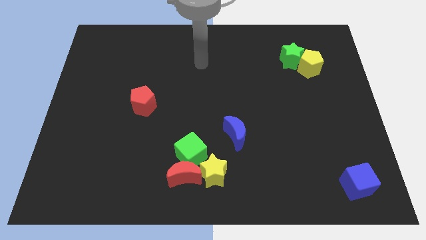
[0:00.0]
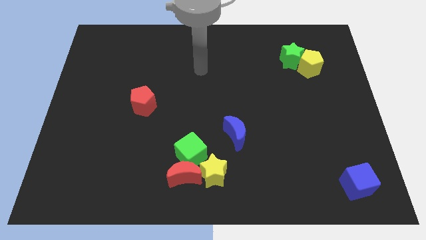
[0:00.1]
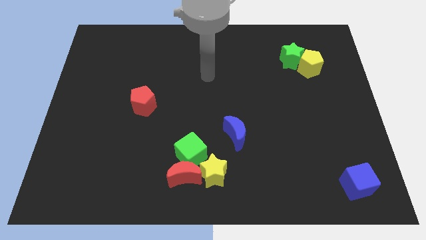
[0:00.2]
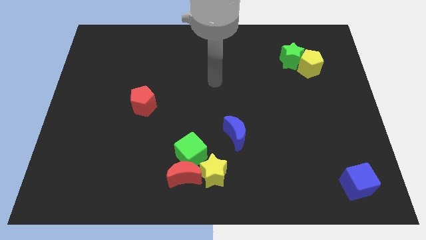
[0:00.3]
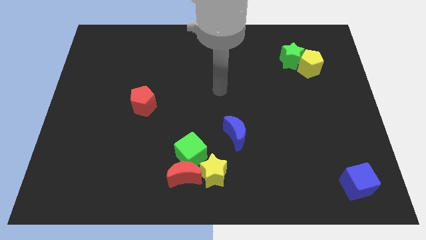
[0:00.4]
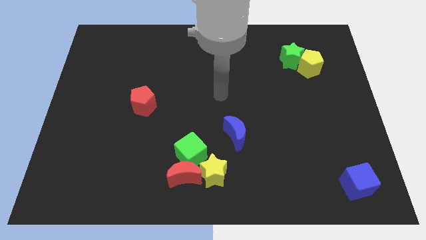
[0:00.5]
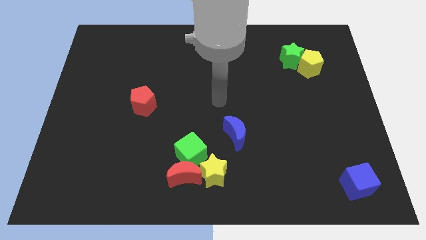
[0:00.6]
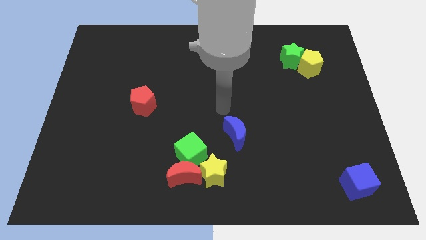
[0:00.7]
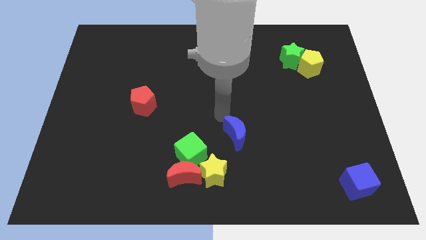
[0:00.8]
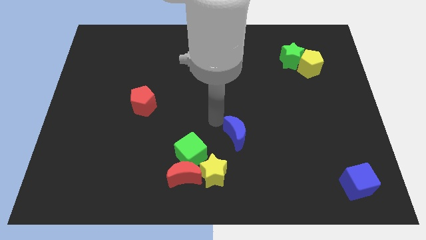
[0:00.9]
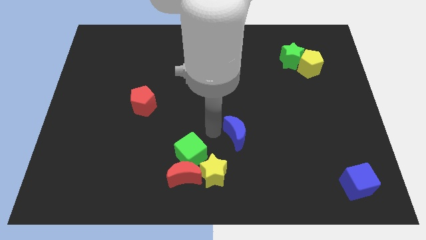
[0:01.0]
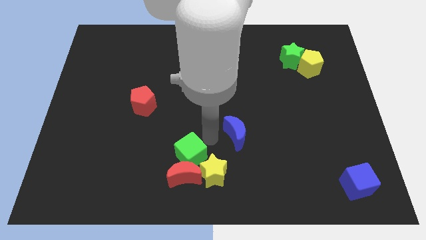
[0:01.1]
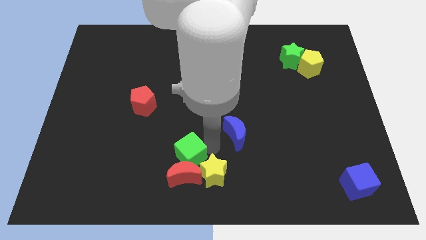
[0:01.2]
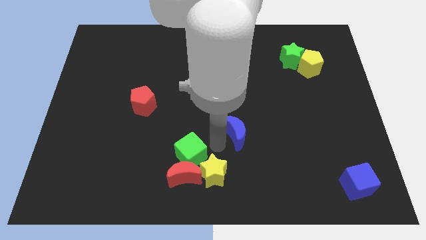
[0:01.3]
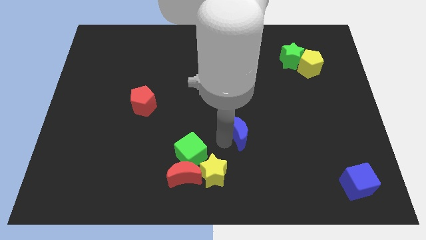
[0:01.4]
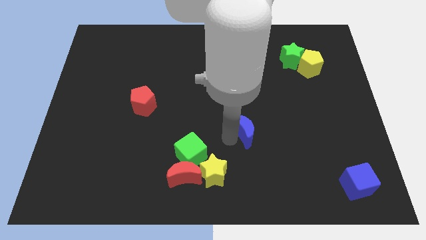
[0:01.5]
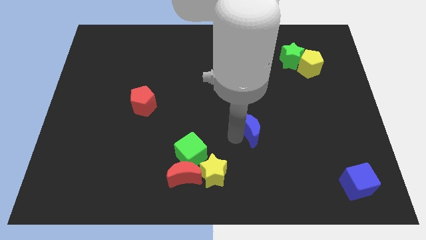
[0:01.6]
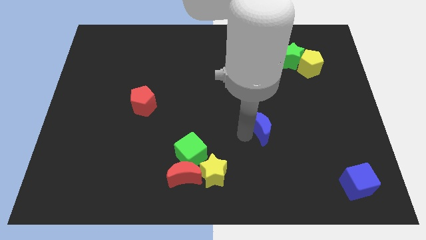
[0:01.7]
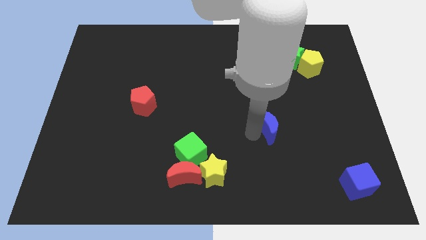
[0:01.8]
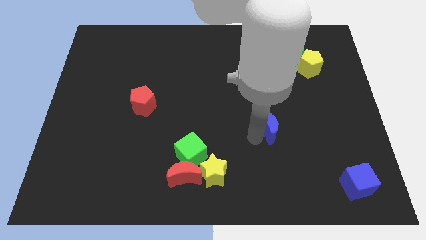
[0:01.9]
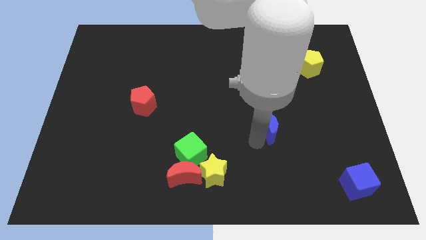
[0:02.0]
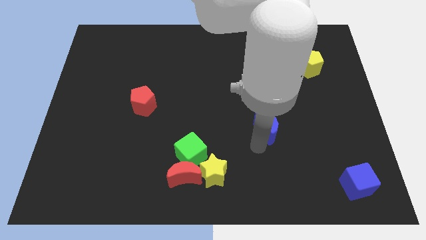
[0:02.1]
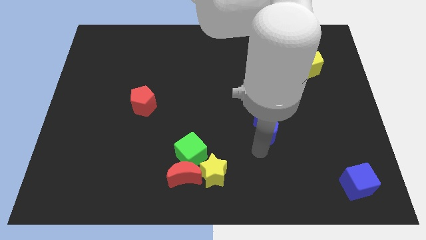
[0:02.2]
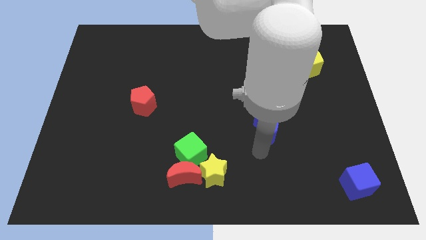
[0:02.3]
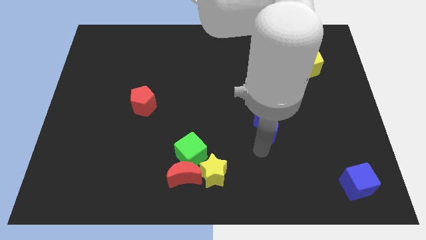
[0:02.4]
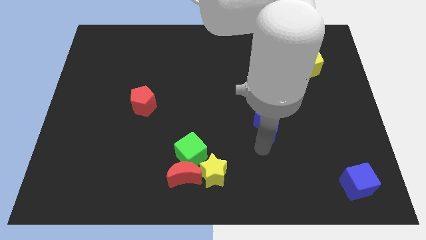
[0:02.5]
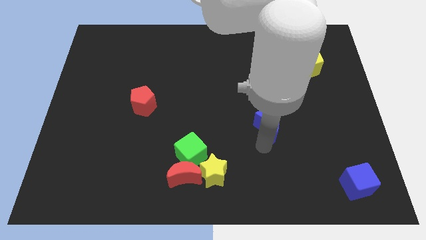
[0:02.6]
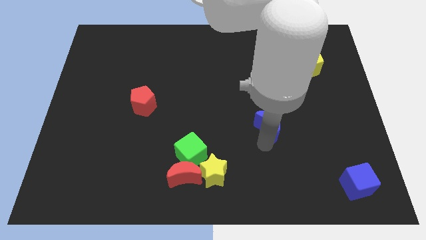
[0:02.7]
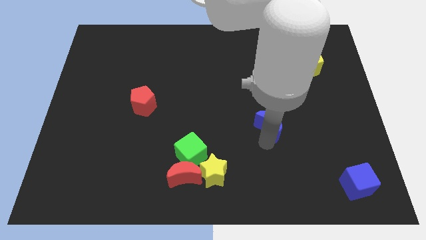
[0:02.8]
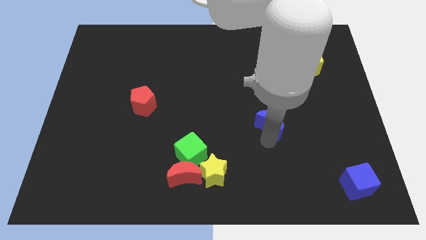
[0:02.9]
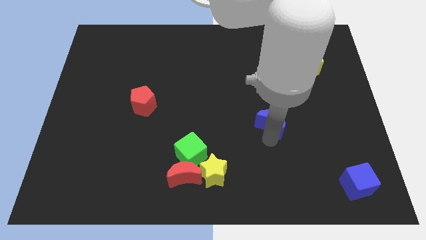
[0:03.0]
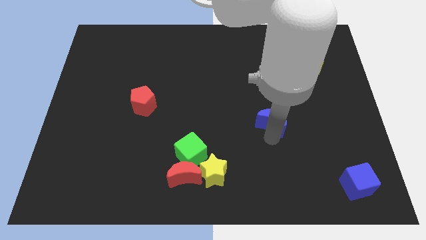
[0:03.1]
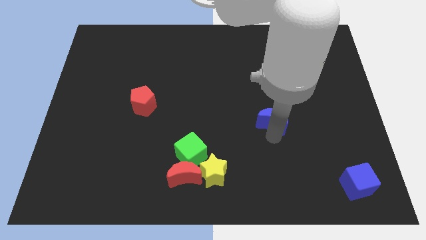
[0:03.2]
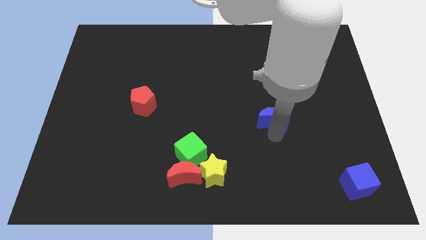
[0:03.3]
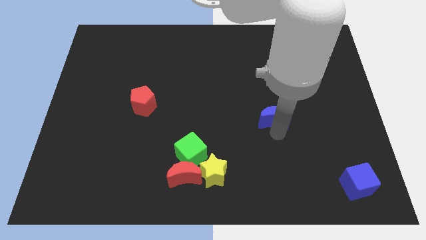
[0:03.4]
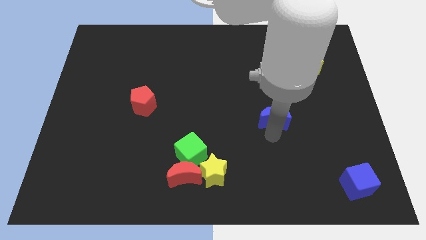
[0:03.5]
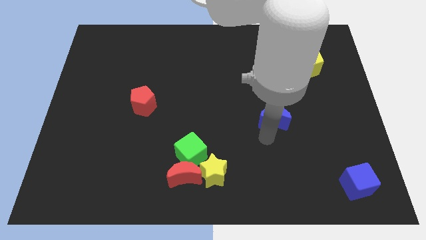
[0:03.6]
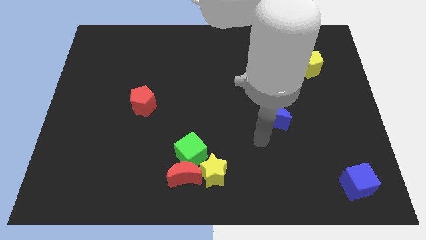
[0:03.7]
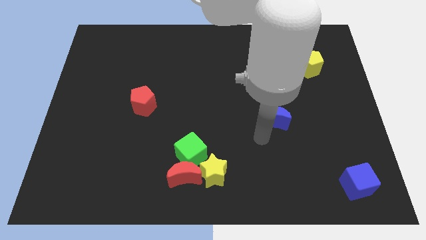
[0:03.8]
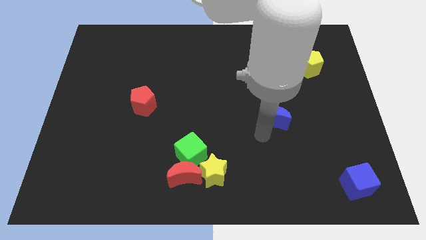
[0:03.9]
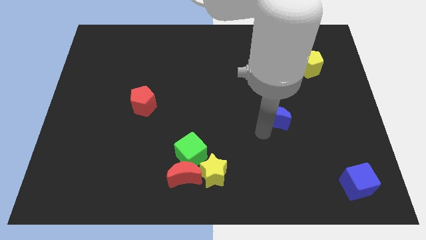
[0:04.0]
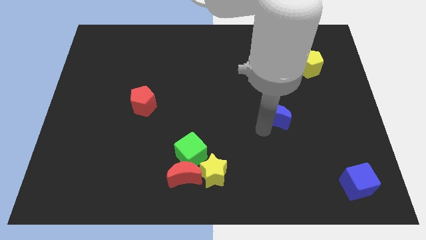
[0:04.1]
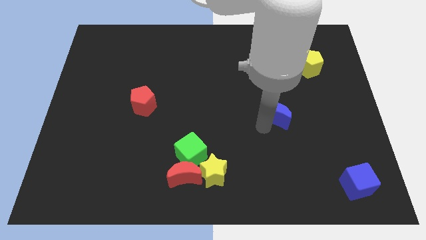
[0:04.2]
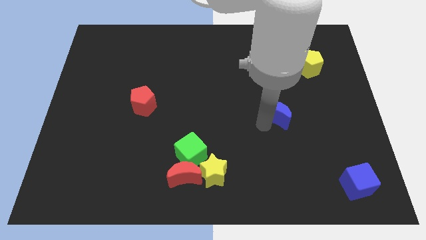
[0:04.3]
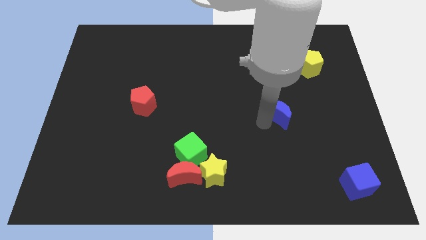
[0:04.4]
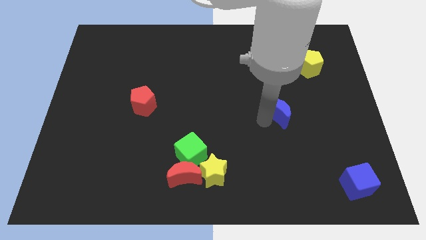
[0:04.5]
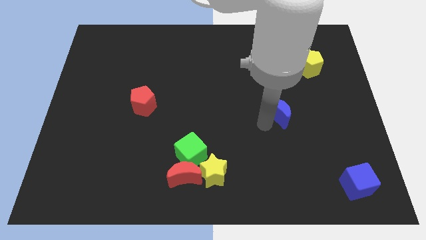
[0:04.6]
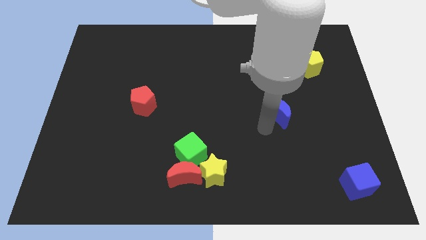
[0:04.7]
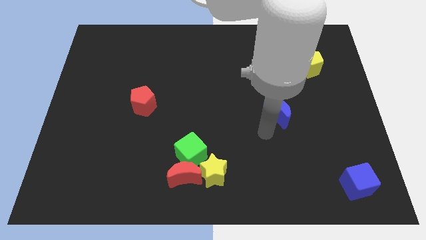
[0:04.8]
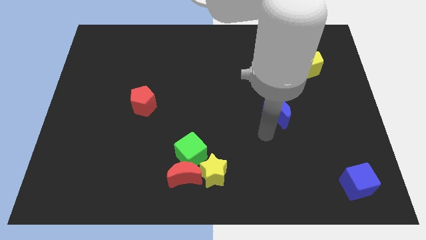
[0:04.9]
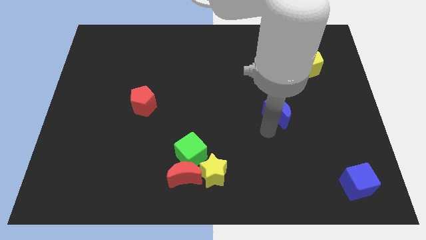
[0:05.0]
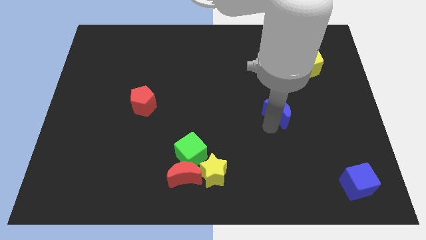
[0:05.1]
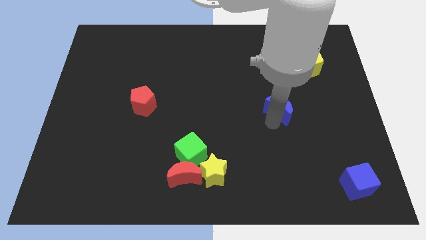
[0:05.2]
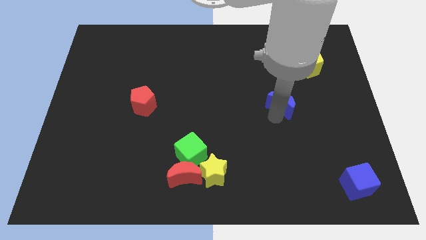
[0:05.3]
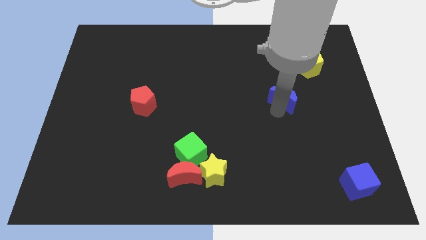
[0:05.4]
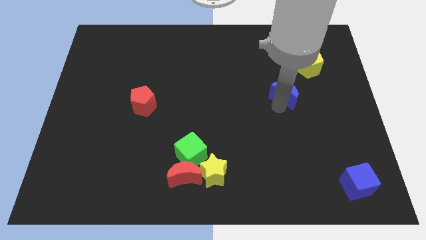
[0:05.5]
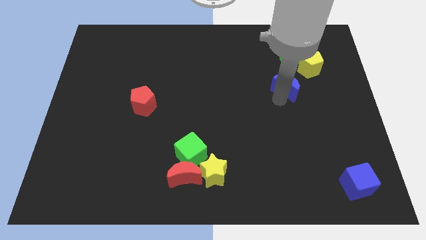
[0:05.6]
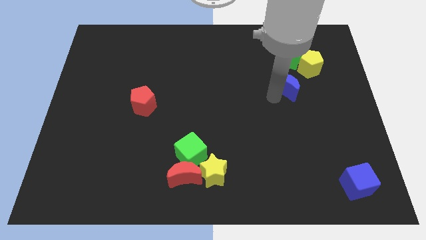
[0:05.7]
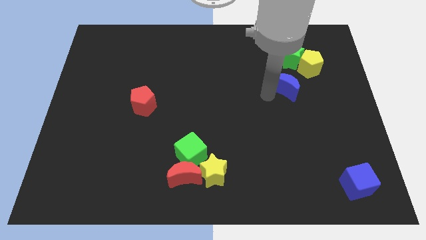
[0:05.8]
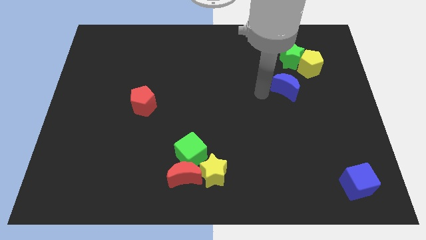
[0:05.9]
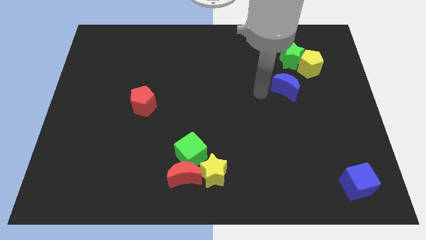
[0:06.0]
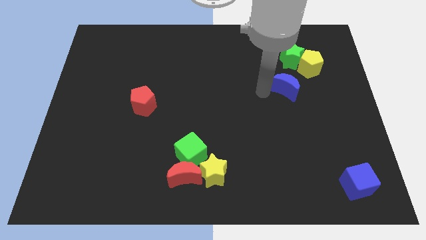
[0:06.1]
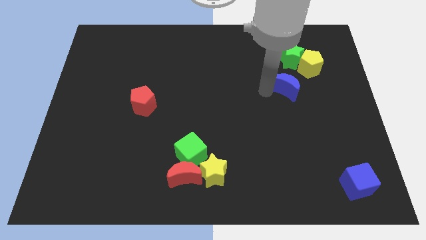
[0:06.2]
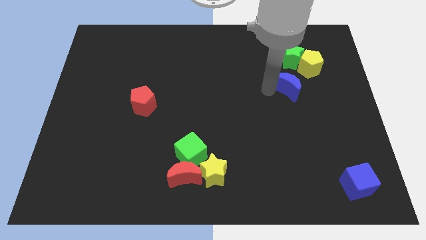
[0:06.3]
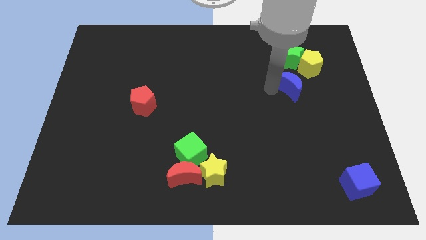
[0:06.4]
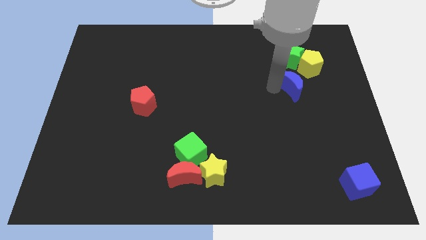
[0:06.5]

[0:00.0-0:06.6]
move the blue moon upwards and to the right diagonally

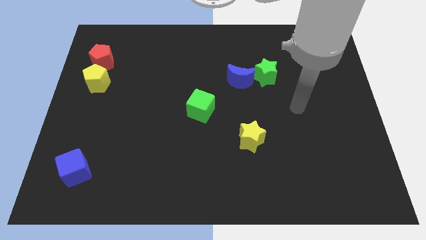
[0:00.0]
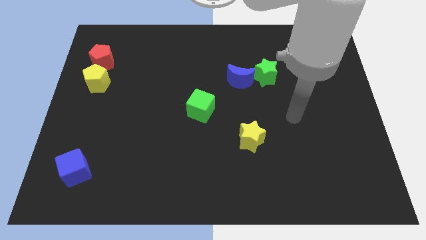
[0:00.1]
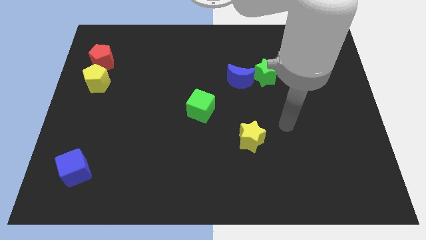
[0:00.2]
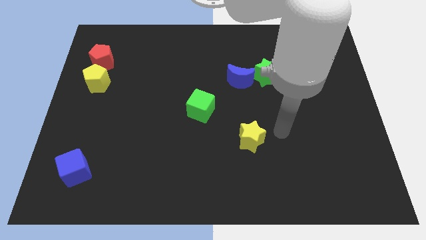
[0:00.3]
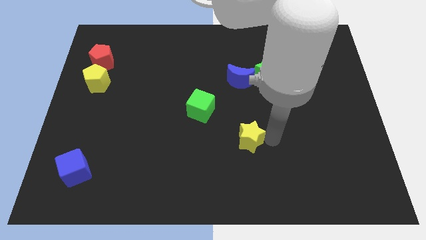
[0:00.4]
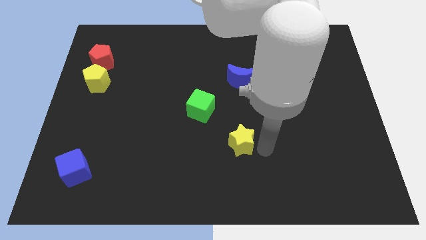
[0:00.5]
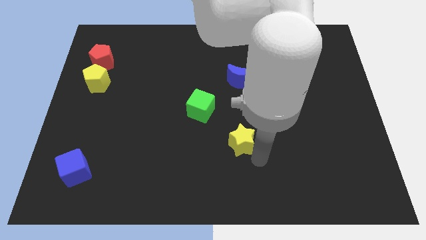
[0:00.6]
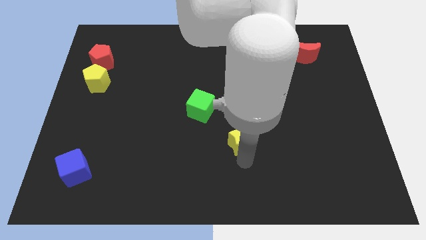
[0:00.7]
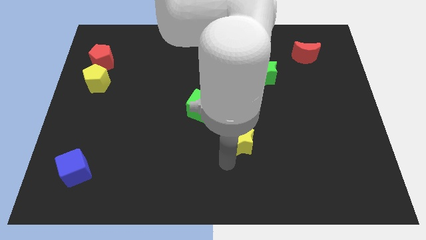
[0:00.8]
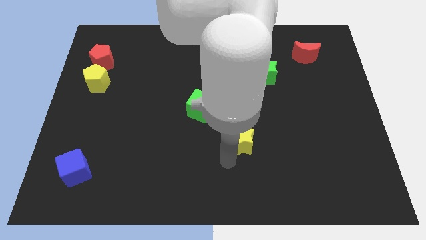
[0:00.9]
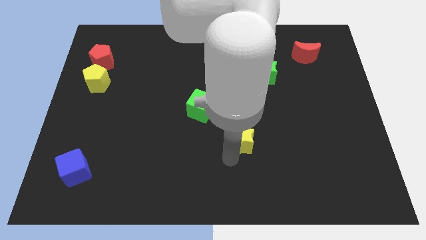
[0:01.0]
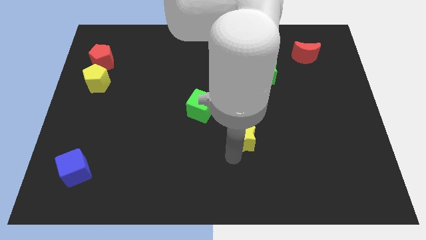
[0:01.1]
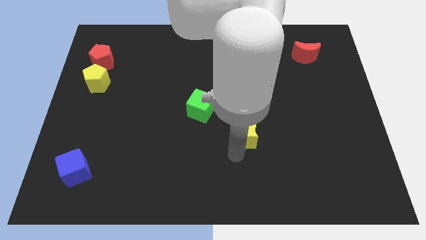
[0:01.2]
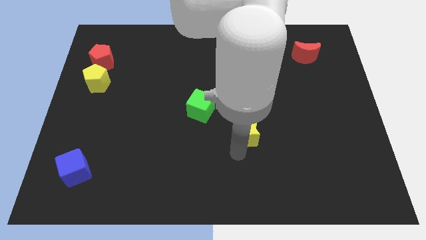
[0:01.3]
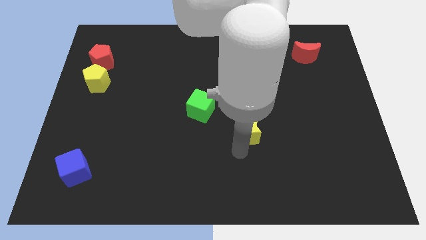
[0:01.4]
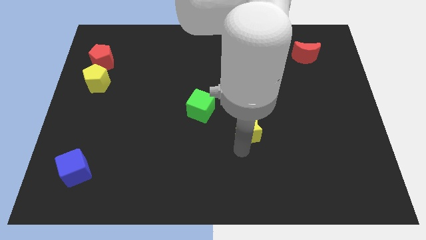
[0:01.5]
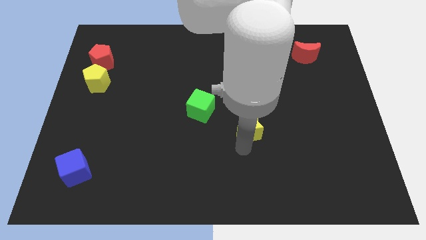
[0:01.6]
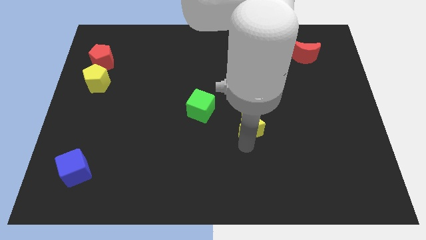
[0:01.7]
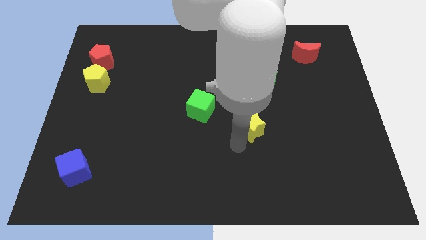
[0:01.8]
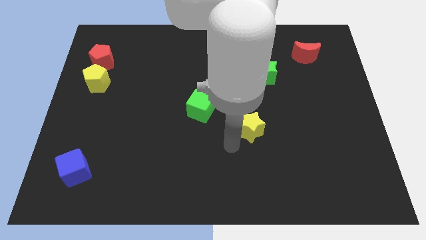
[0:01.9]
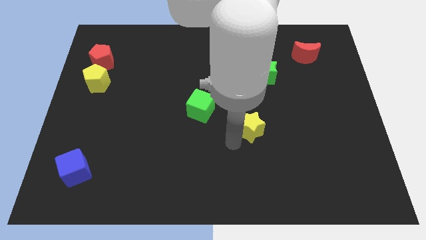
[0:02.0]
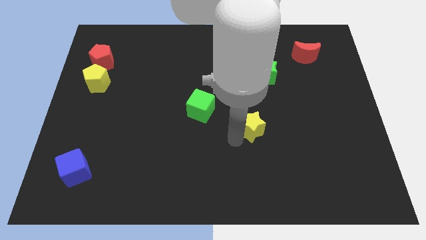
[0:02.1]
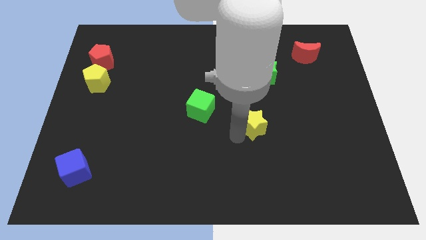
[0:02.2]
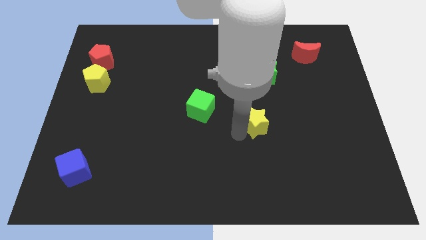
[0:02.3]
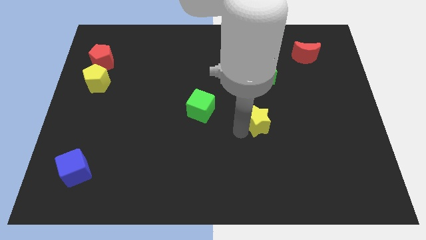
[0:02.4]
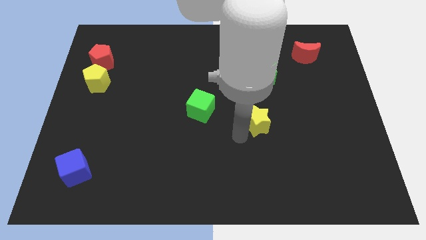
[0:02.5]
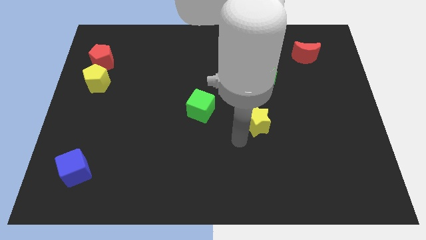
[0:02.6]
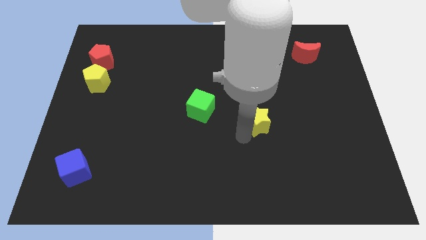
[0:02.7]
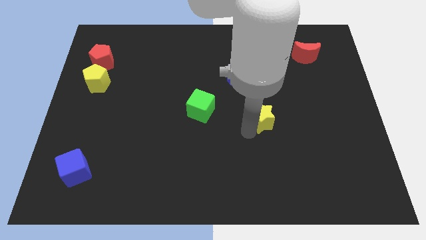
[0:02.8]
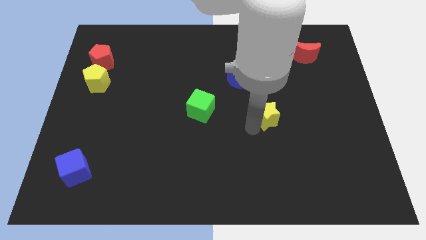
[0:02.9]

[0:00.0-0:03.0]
move the yellow star upwards and to the right diagonally somewhat
